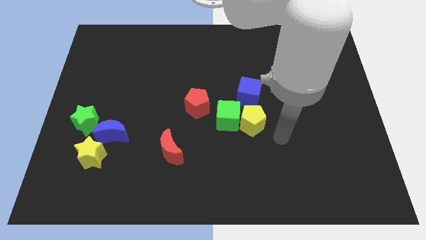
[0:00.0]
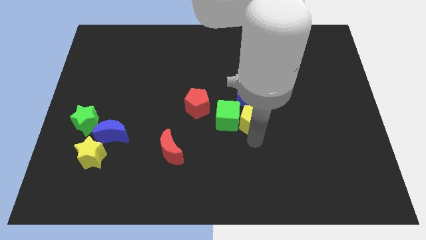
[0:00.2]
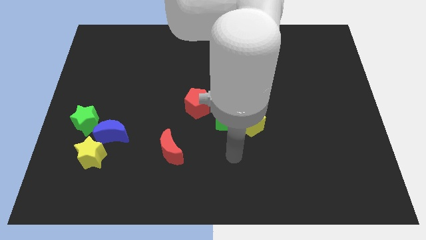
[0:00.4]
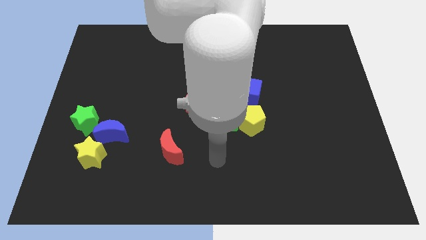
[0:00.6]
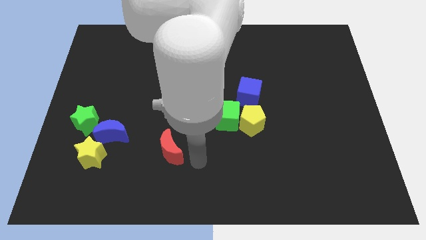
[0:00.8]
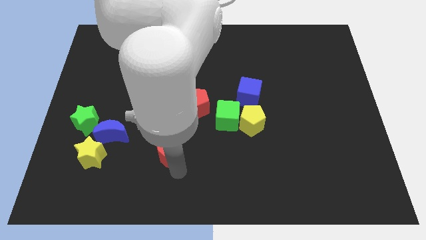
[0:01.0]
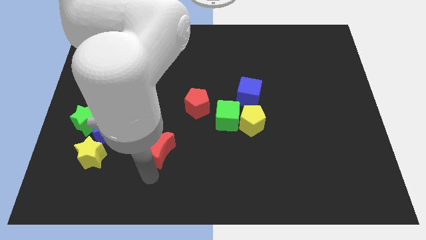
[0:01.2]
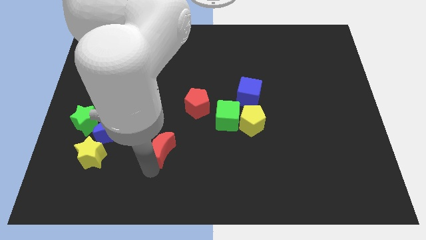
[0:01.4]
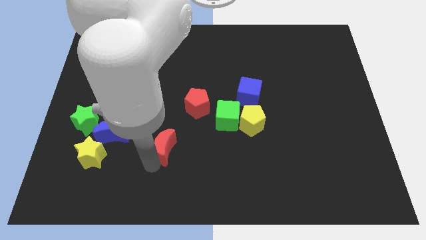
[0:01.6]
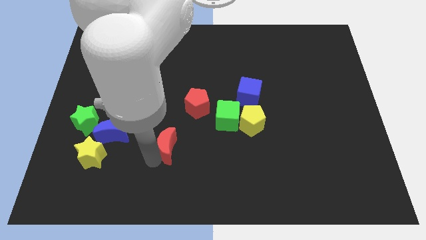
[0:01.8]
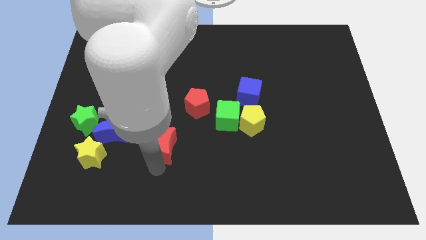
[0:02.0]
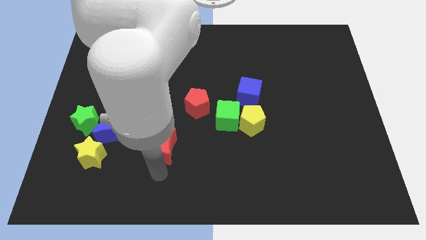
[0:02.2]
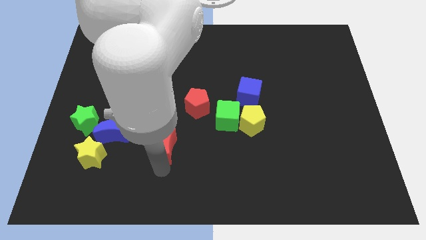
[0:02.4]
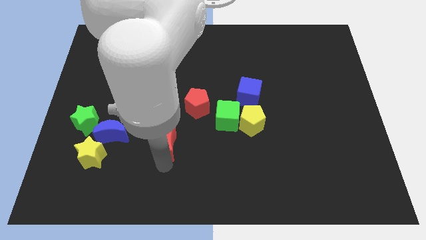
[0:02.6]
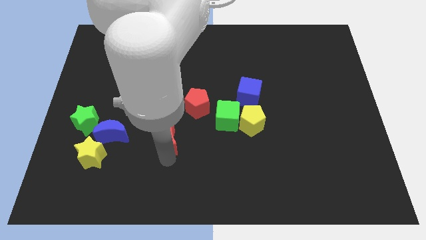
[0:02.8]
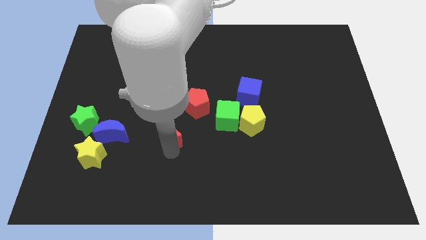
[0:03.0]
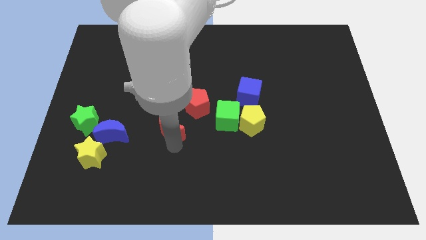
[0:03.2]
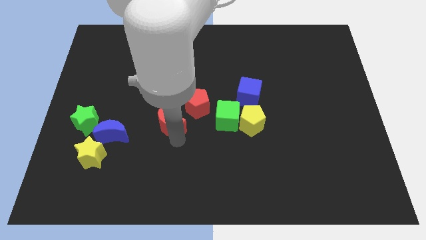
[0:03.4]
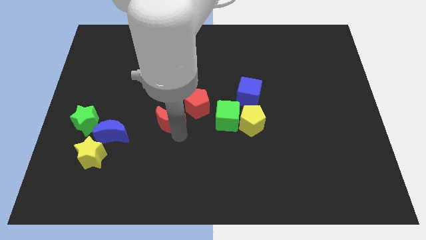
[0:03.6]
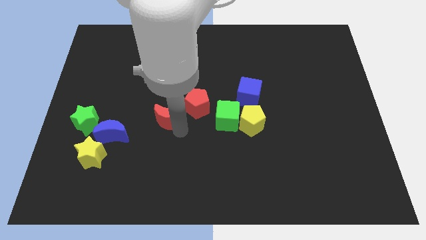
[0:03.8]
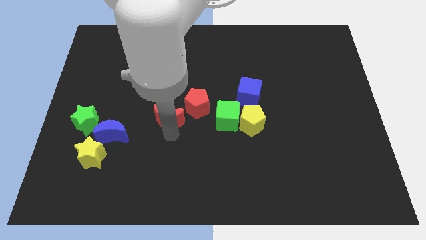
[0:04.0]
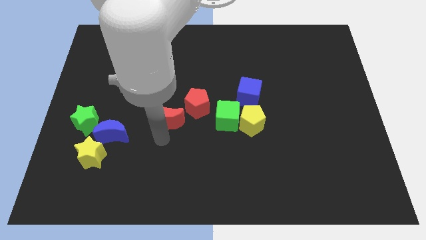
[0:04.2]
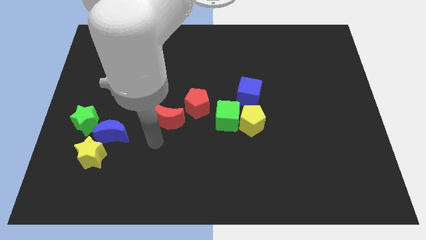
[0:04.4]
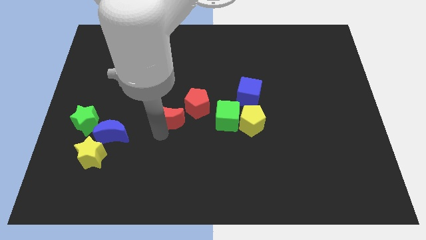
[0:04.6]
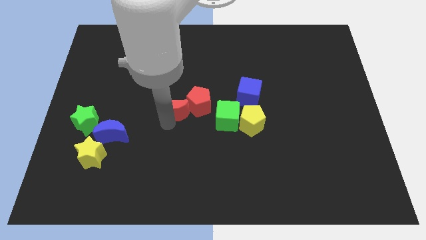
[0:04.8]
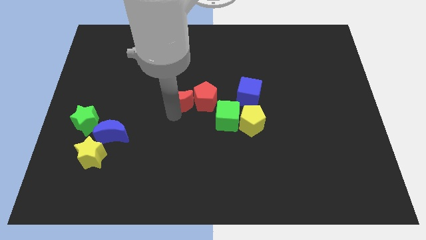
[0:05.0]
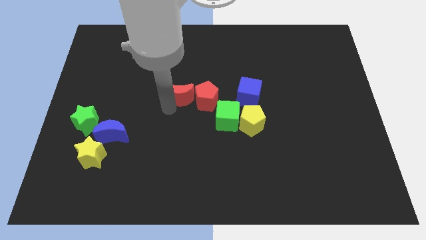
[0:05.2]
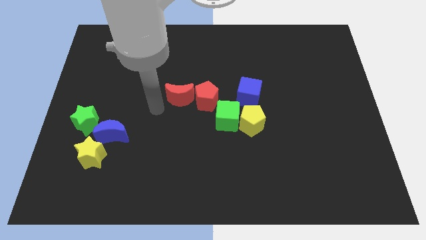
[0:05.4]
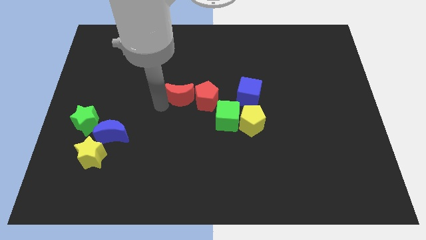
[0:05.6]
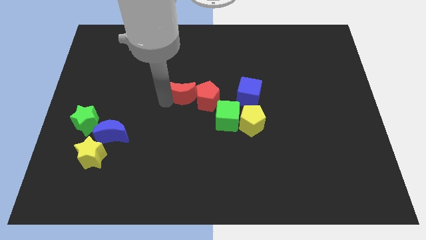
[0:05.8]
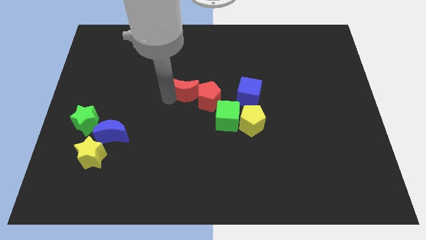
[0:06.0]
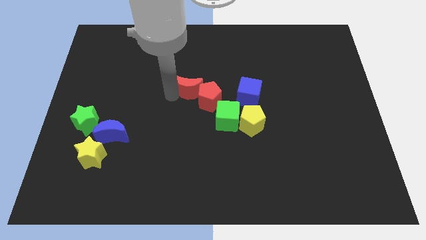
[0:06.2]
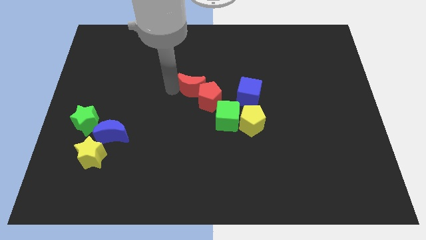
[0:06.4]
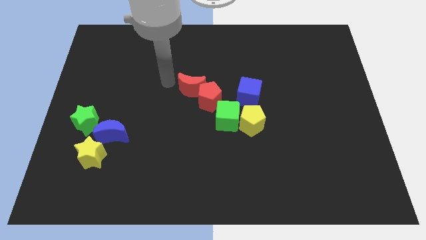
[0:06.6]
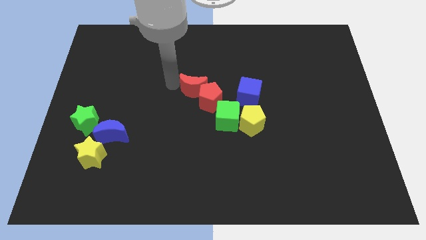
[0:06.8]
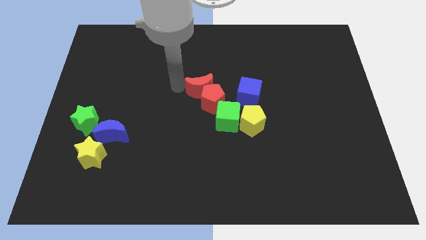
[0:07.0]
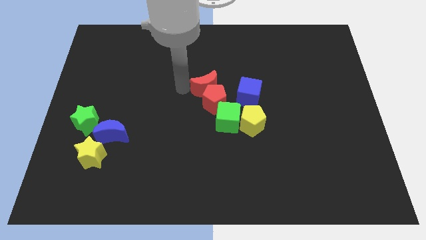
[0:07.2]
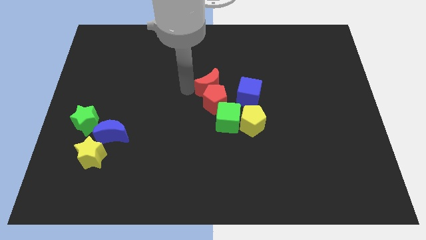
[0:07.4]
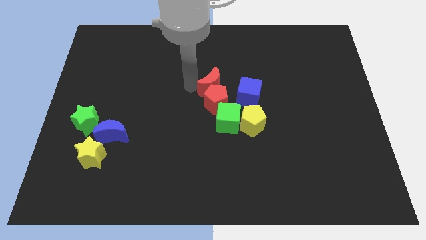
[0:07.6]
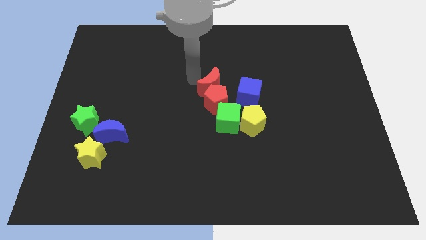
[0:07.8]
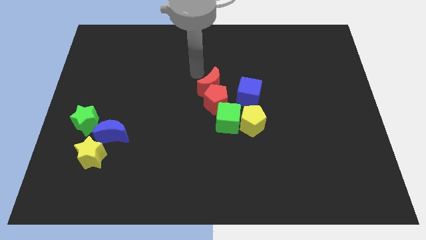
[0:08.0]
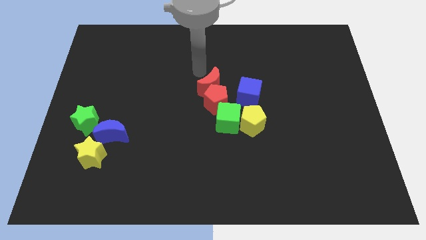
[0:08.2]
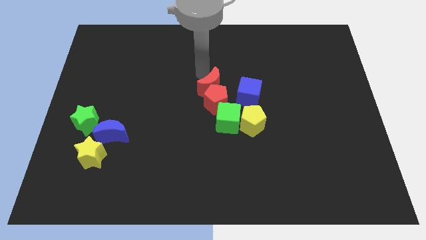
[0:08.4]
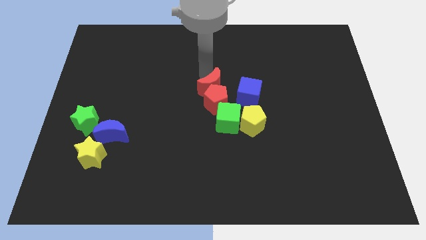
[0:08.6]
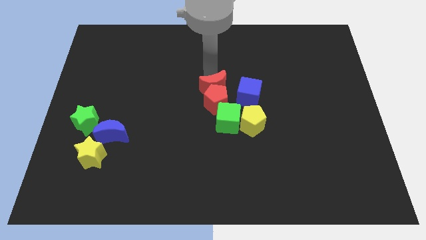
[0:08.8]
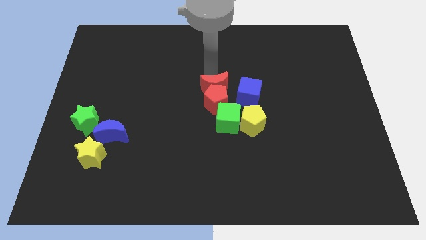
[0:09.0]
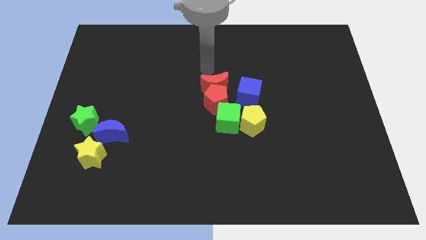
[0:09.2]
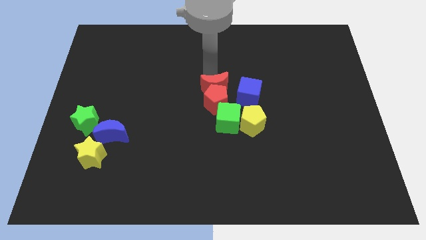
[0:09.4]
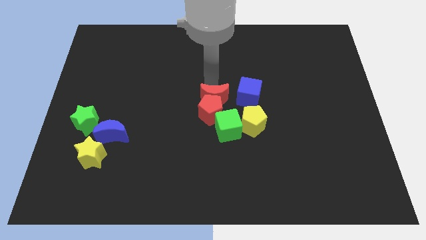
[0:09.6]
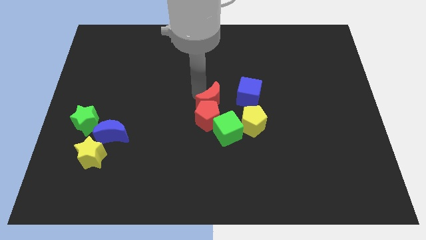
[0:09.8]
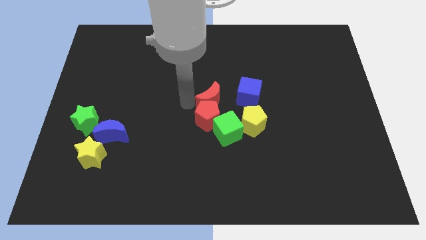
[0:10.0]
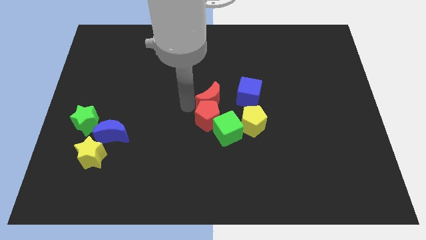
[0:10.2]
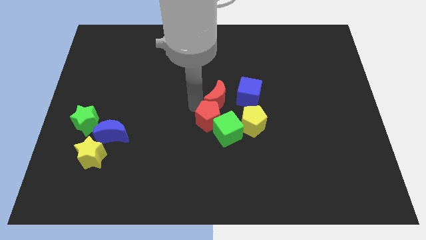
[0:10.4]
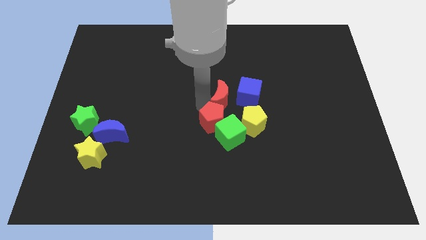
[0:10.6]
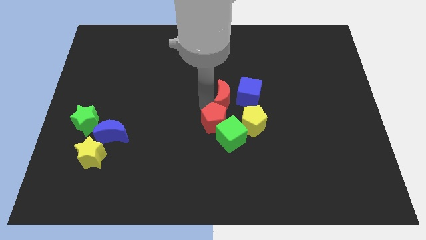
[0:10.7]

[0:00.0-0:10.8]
push the red moon next to the blue cube

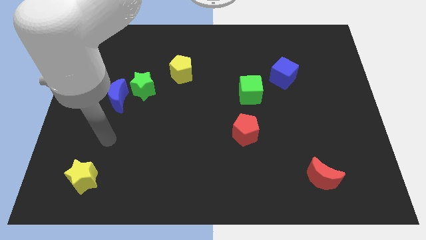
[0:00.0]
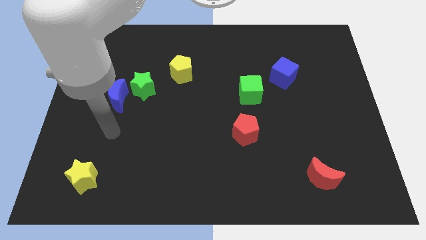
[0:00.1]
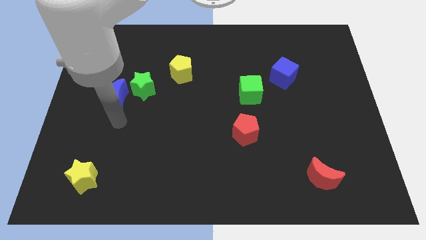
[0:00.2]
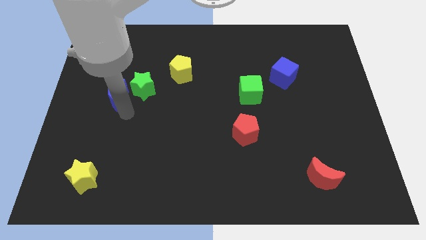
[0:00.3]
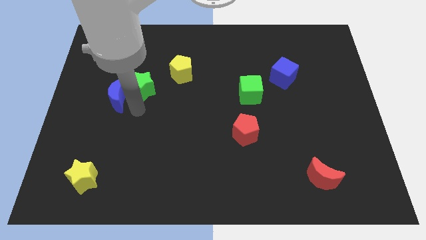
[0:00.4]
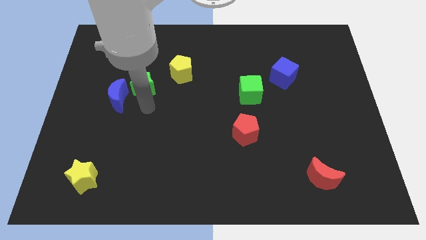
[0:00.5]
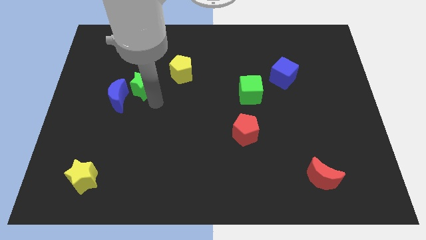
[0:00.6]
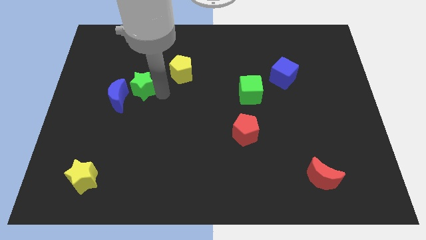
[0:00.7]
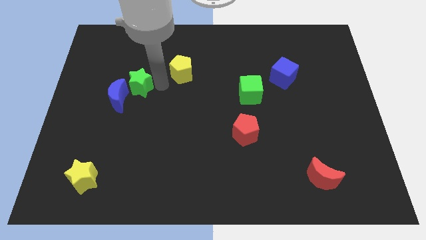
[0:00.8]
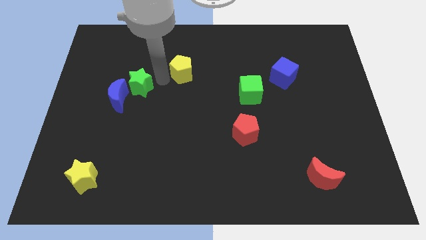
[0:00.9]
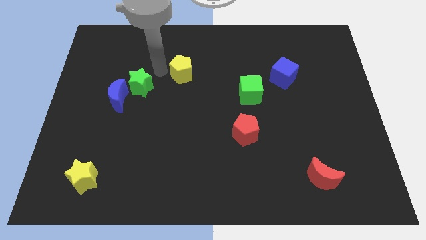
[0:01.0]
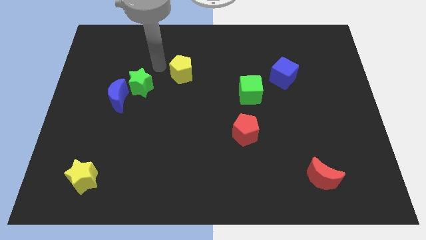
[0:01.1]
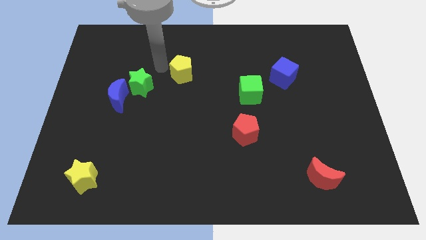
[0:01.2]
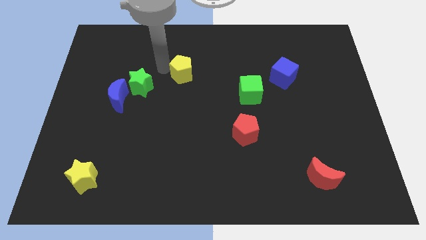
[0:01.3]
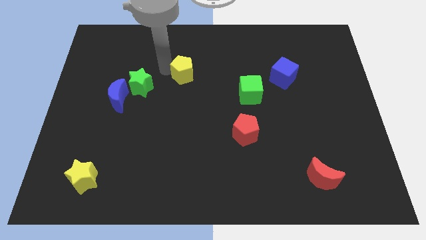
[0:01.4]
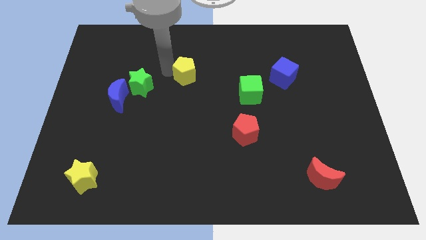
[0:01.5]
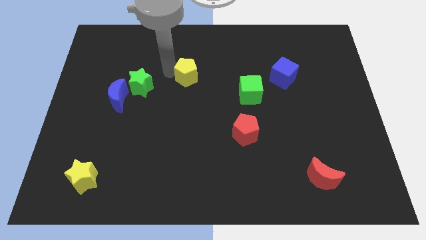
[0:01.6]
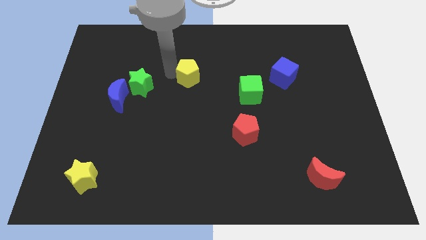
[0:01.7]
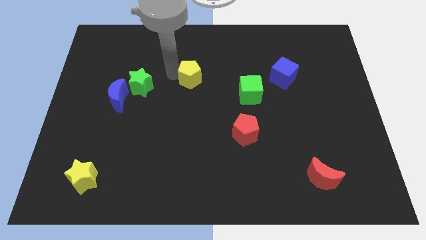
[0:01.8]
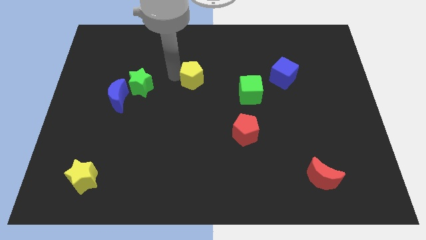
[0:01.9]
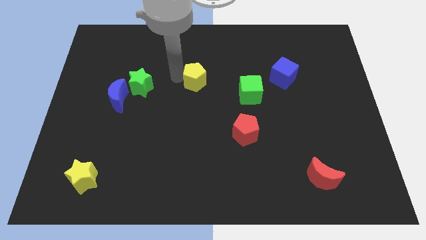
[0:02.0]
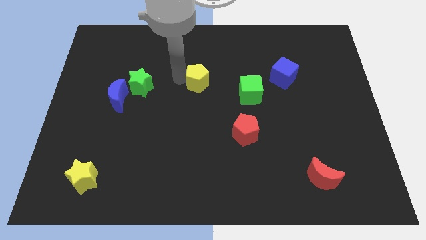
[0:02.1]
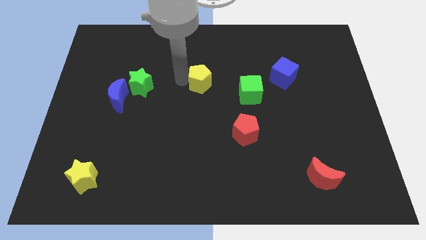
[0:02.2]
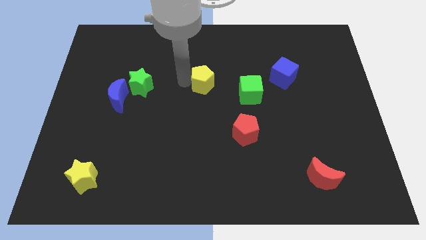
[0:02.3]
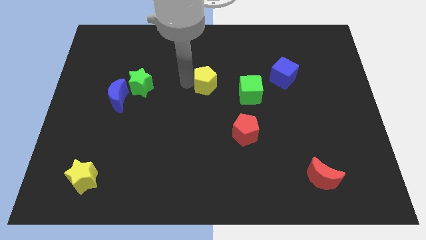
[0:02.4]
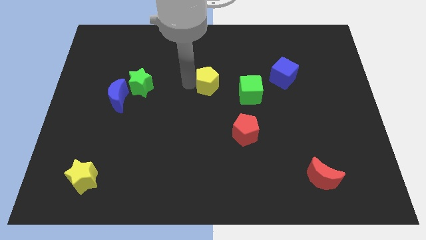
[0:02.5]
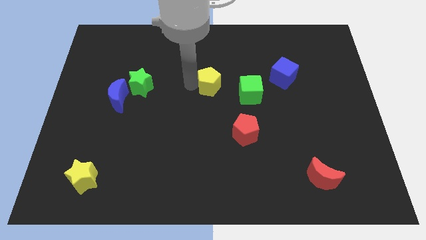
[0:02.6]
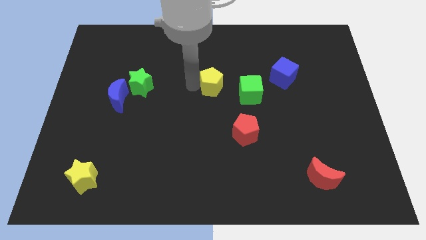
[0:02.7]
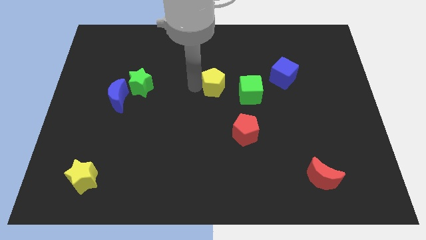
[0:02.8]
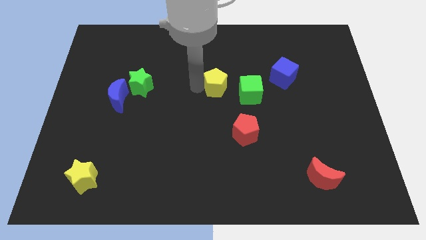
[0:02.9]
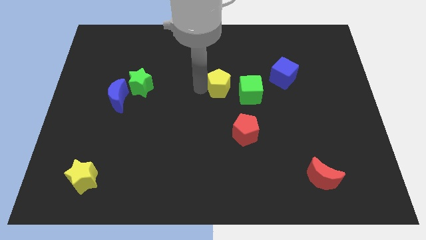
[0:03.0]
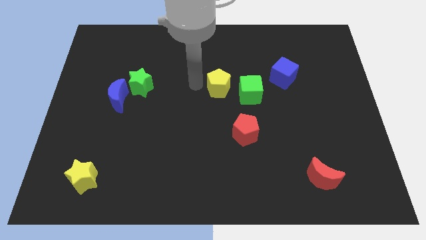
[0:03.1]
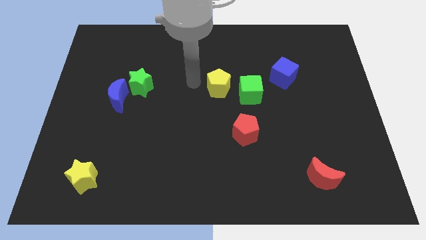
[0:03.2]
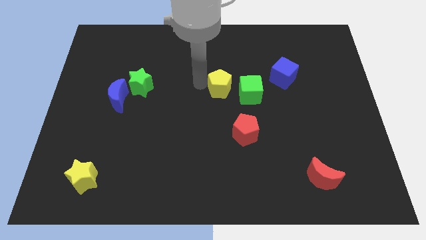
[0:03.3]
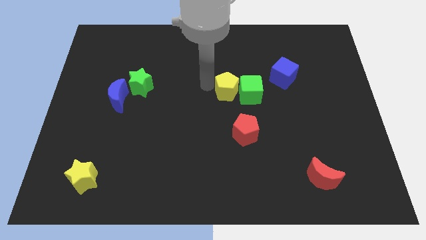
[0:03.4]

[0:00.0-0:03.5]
move the yellow pentagon to the green cube
